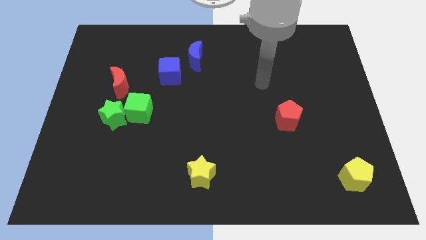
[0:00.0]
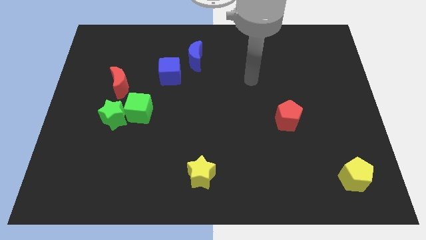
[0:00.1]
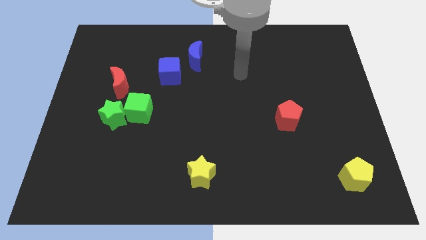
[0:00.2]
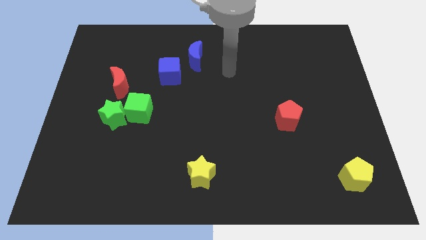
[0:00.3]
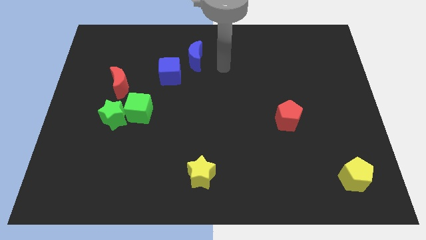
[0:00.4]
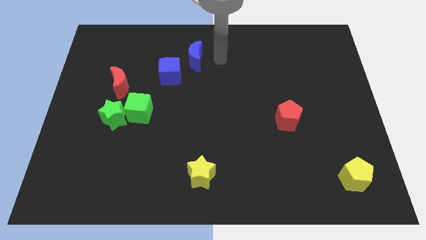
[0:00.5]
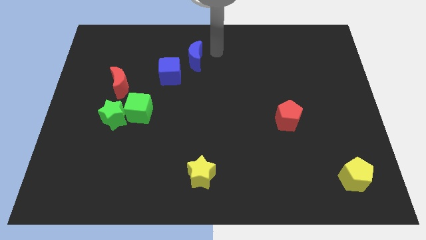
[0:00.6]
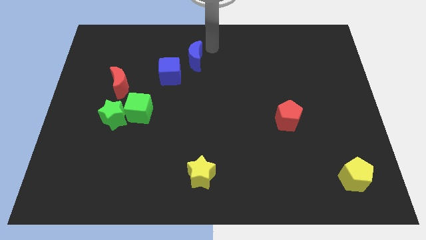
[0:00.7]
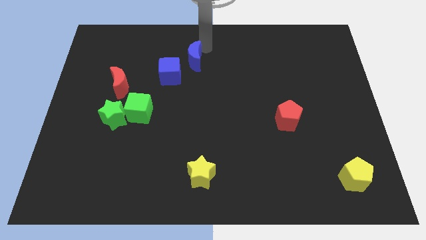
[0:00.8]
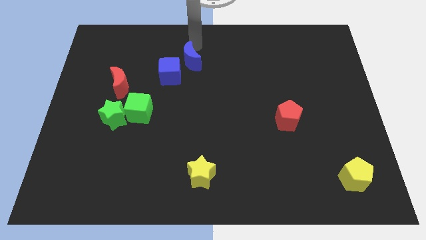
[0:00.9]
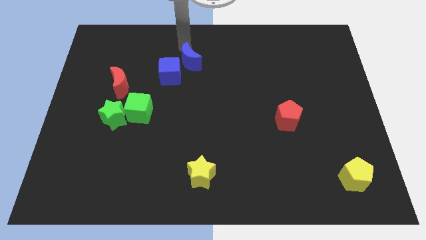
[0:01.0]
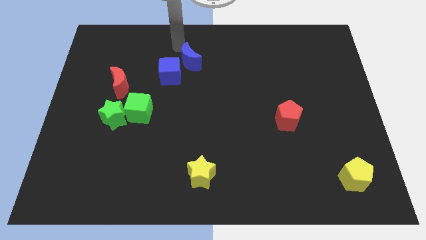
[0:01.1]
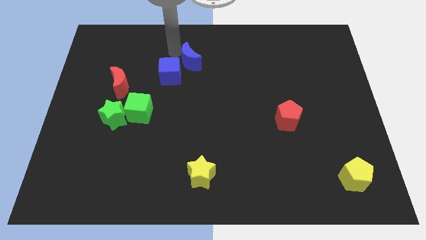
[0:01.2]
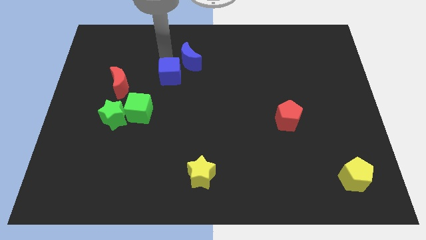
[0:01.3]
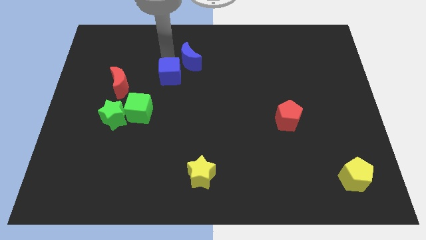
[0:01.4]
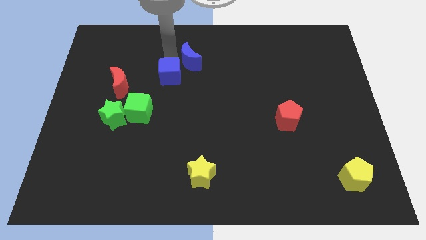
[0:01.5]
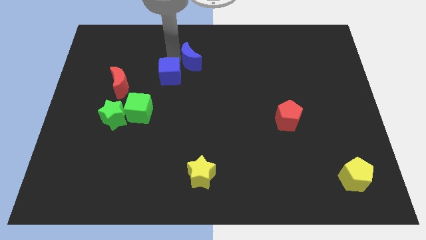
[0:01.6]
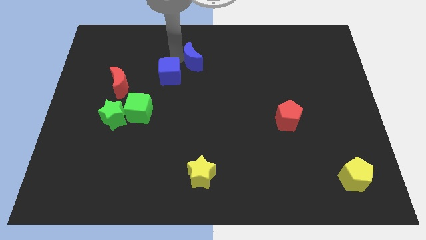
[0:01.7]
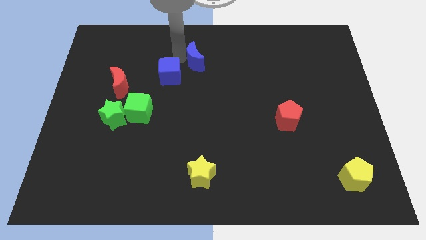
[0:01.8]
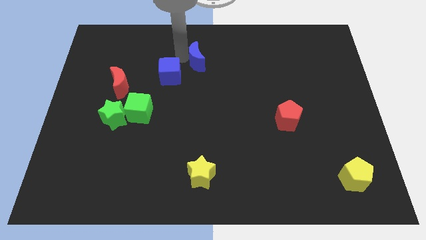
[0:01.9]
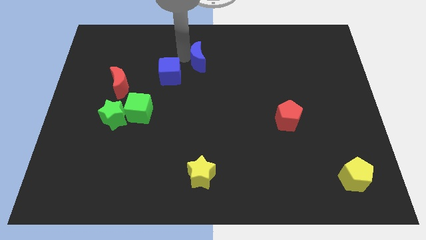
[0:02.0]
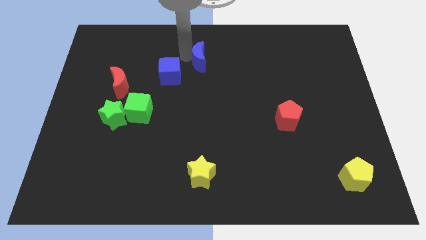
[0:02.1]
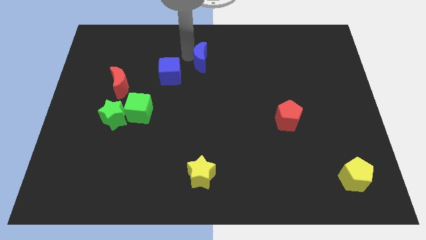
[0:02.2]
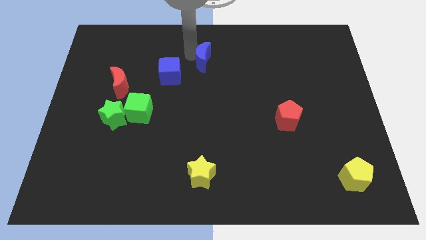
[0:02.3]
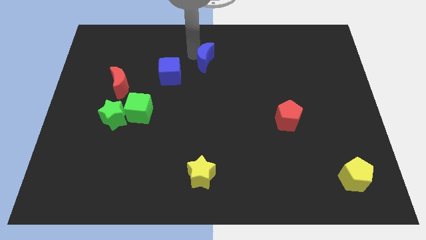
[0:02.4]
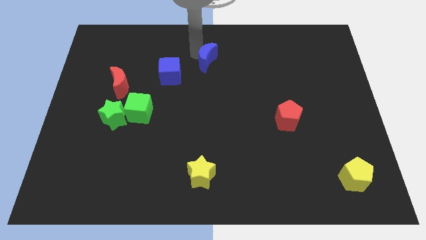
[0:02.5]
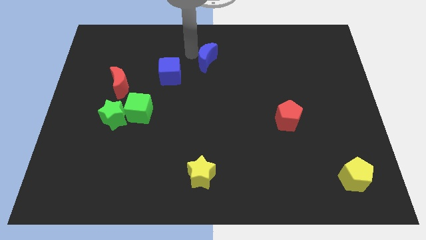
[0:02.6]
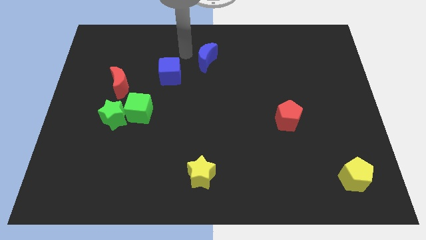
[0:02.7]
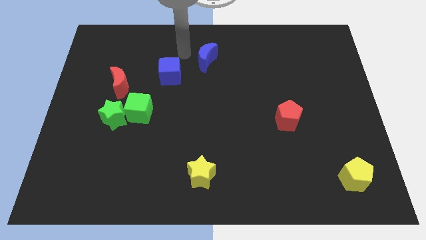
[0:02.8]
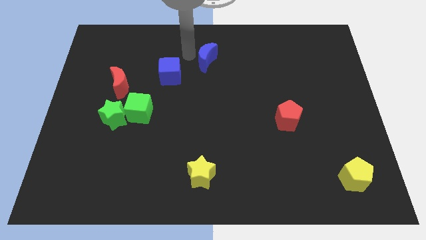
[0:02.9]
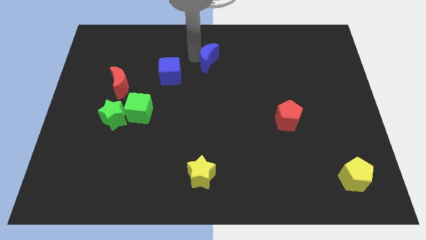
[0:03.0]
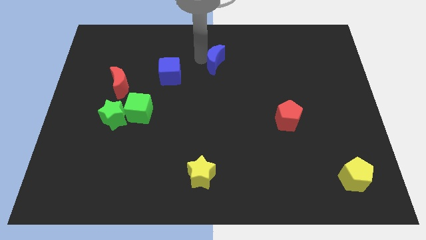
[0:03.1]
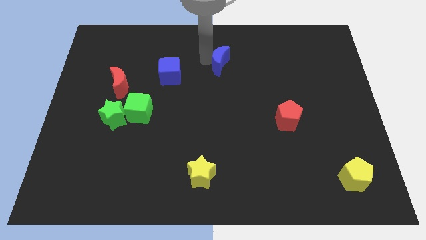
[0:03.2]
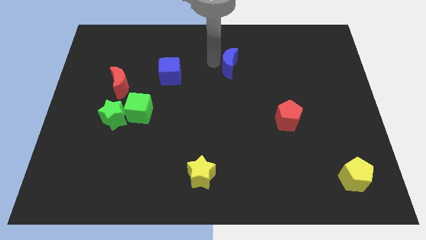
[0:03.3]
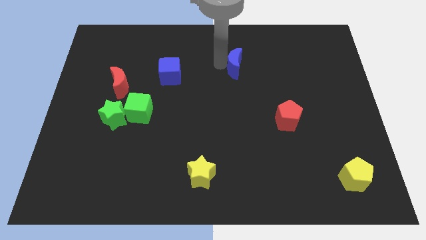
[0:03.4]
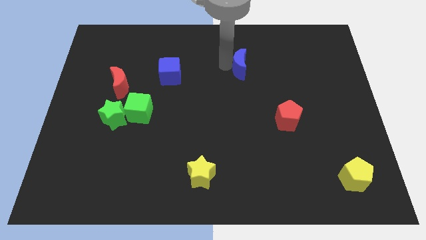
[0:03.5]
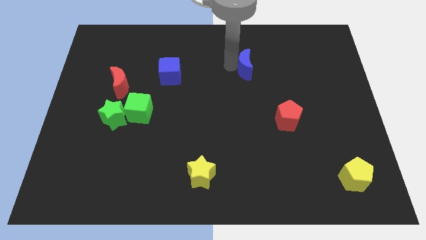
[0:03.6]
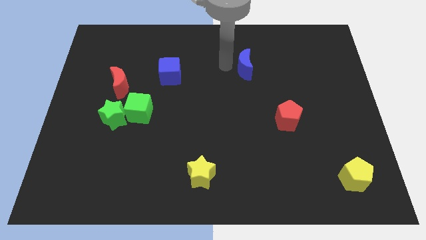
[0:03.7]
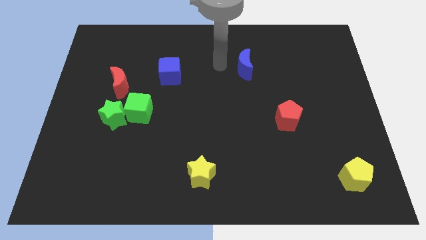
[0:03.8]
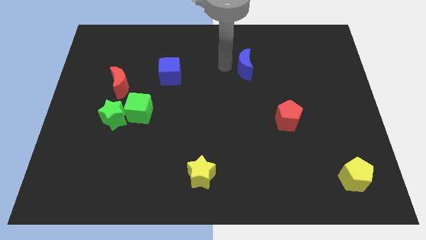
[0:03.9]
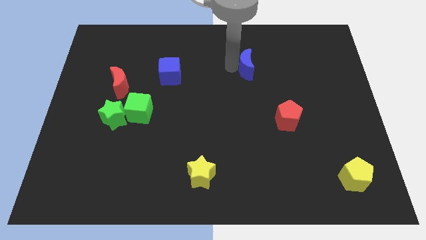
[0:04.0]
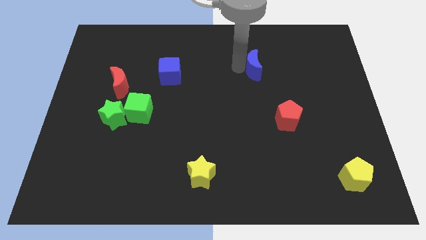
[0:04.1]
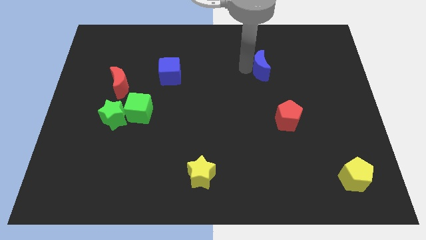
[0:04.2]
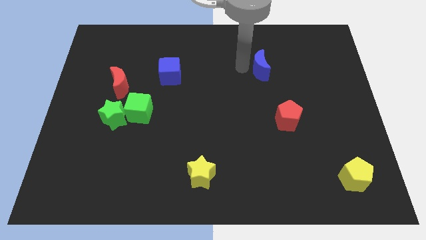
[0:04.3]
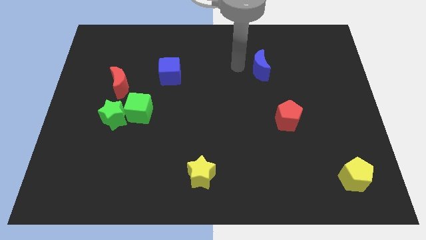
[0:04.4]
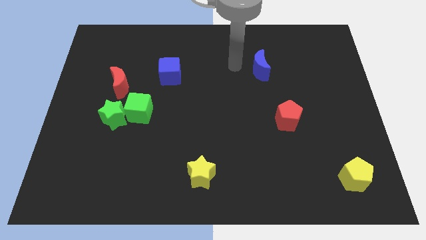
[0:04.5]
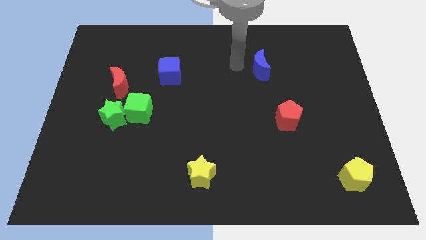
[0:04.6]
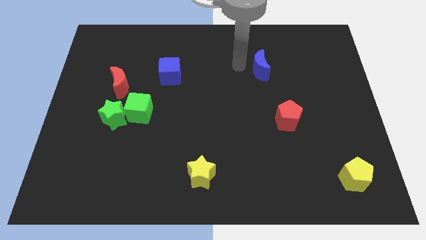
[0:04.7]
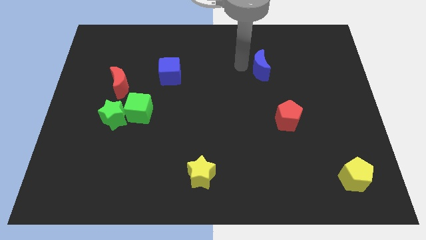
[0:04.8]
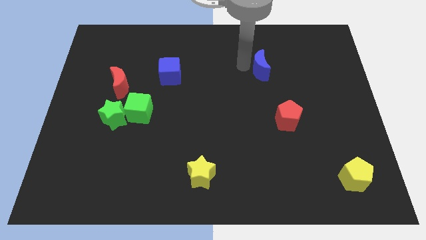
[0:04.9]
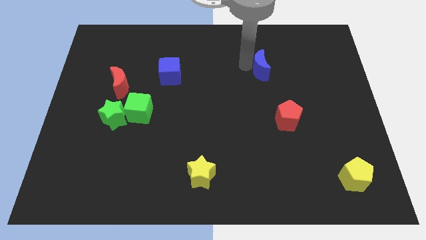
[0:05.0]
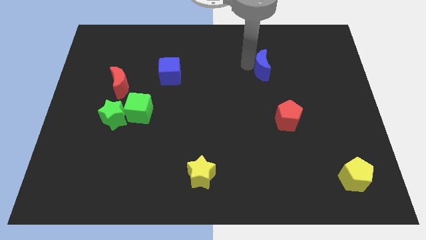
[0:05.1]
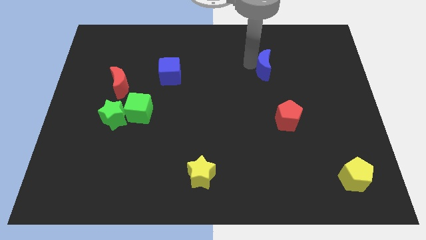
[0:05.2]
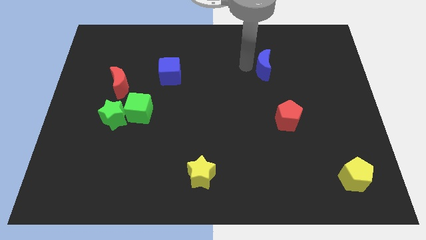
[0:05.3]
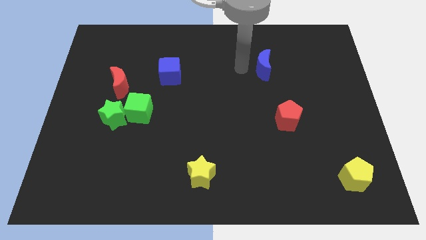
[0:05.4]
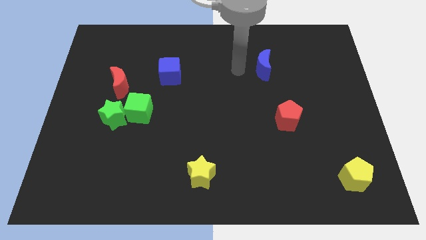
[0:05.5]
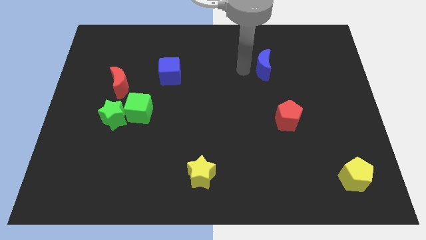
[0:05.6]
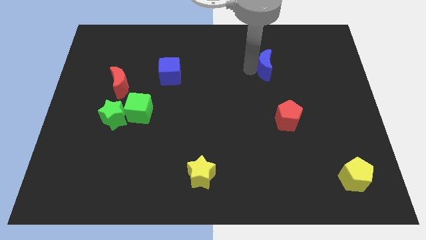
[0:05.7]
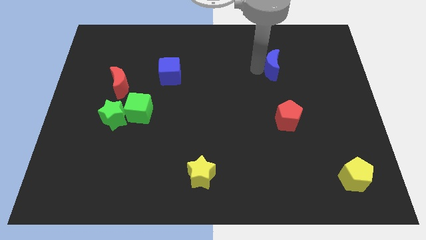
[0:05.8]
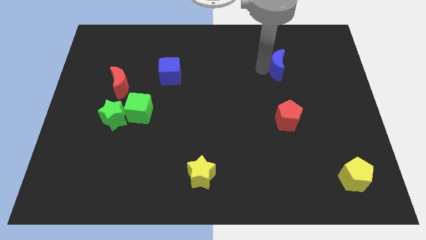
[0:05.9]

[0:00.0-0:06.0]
push the blue moon right

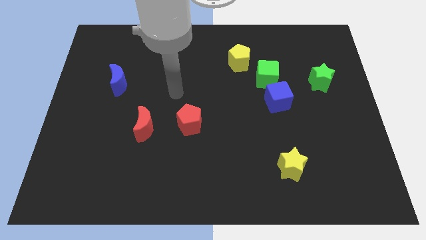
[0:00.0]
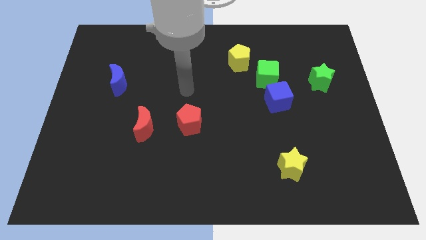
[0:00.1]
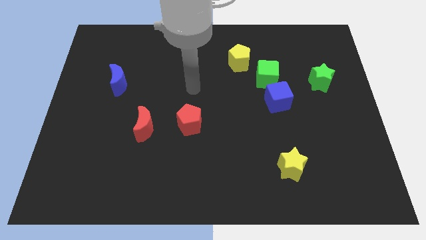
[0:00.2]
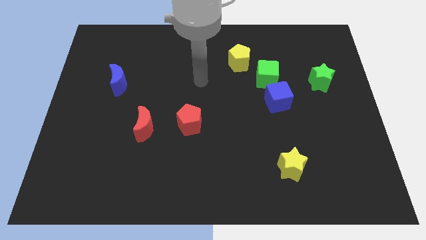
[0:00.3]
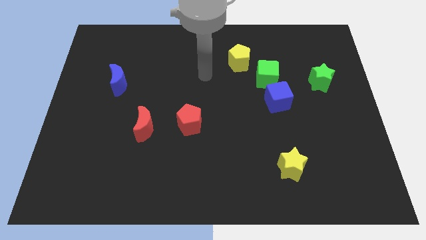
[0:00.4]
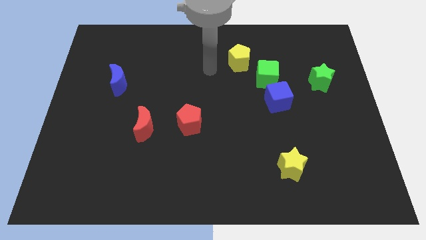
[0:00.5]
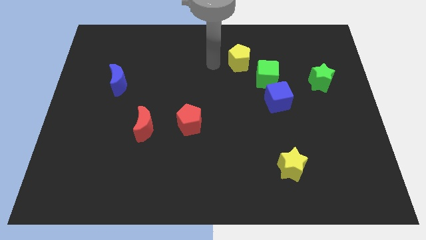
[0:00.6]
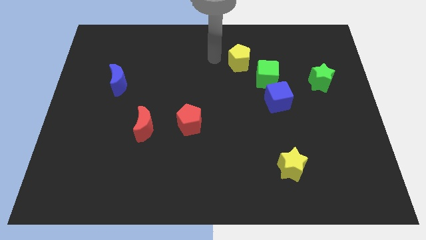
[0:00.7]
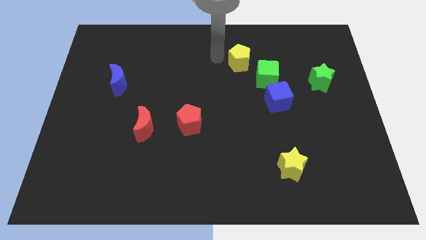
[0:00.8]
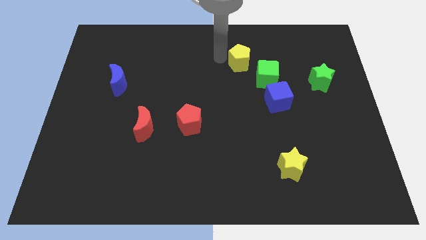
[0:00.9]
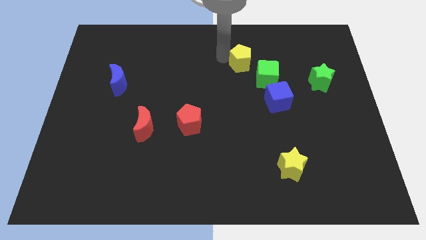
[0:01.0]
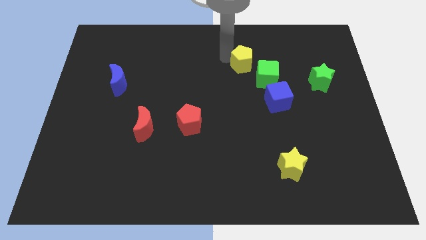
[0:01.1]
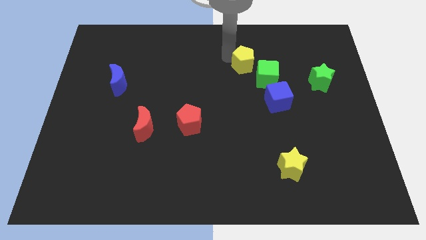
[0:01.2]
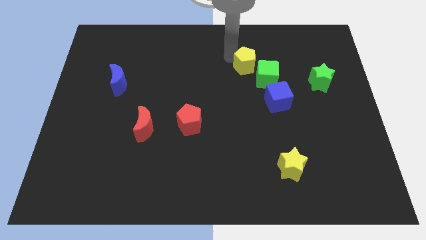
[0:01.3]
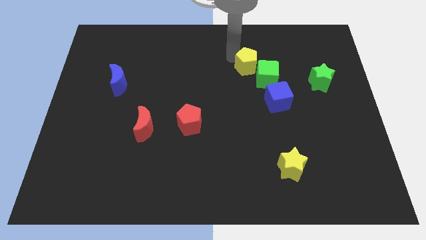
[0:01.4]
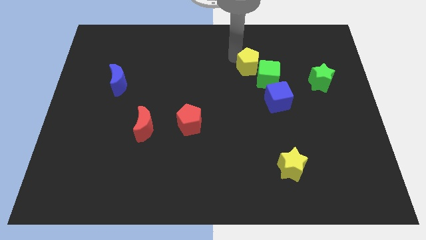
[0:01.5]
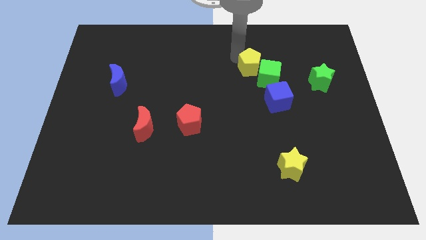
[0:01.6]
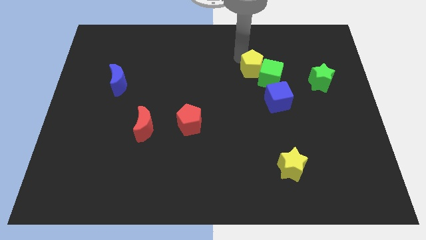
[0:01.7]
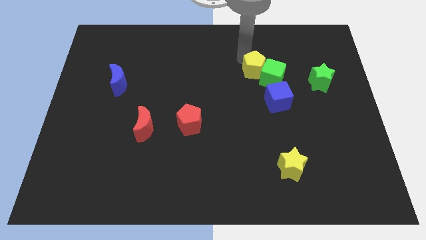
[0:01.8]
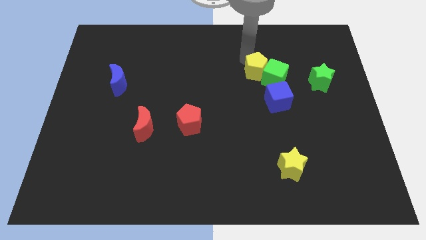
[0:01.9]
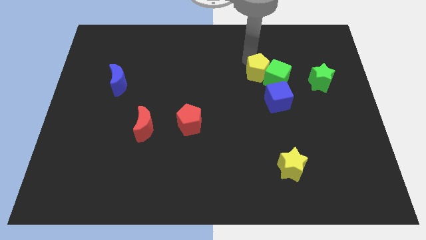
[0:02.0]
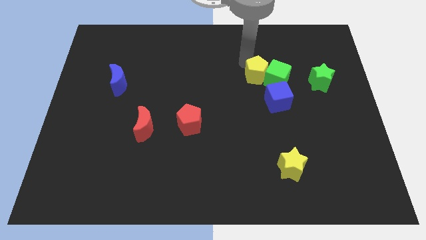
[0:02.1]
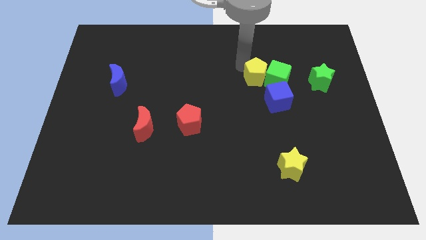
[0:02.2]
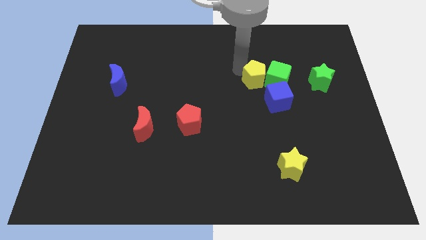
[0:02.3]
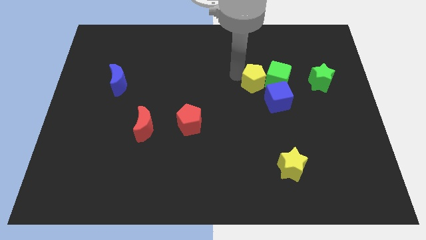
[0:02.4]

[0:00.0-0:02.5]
slide the yellow pentagon a little bit downwards and then right
